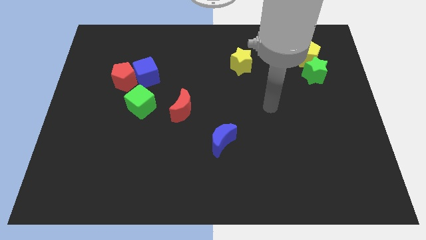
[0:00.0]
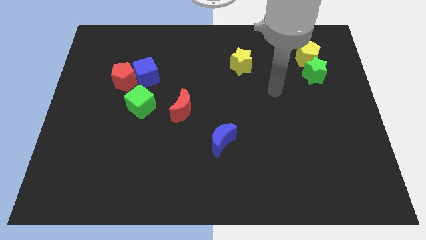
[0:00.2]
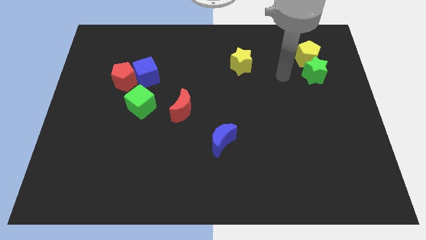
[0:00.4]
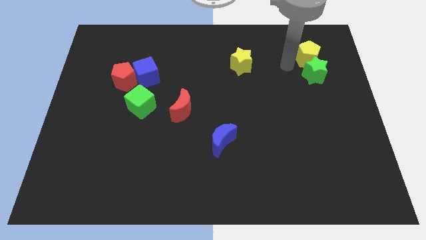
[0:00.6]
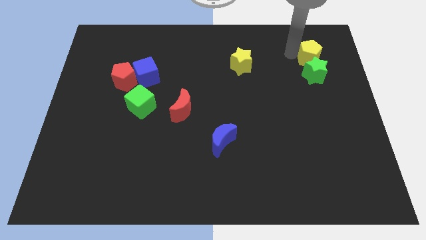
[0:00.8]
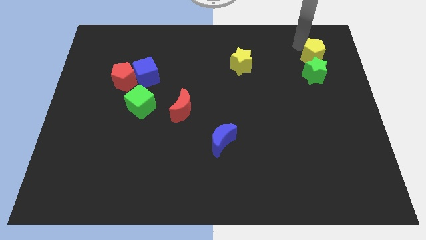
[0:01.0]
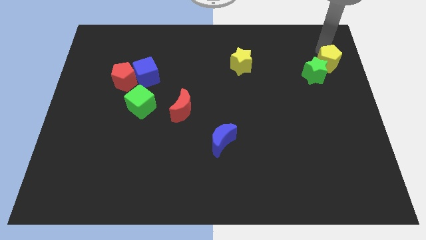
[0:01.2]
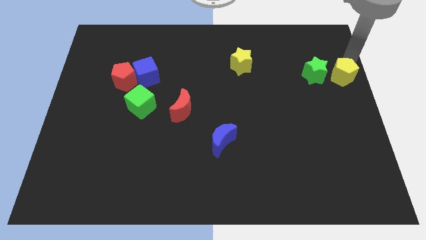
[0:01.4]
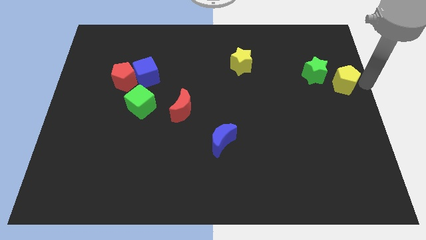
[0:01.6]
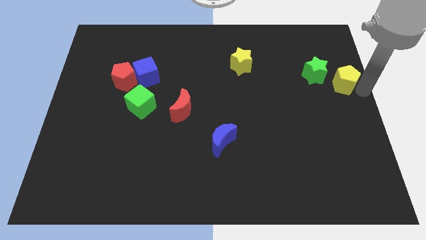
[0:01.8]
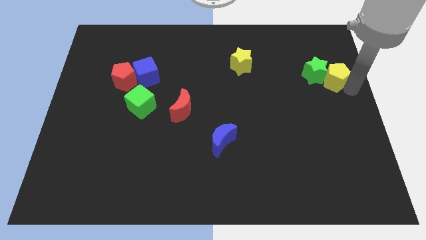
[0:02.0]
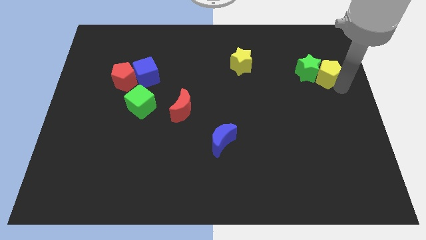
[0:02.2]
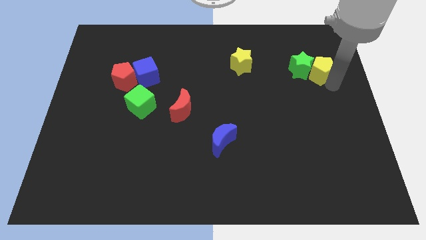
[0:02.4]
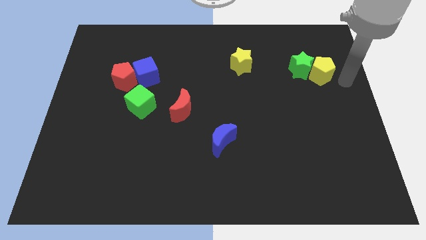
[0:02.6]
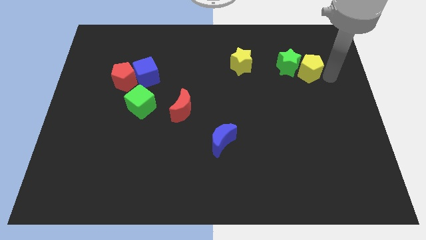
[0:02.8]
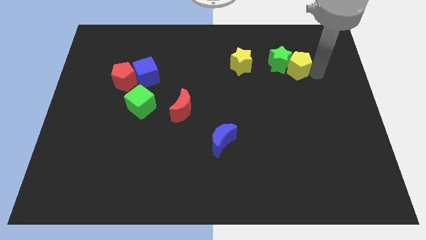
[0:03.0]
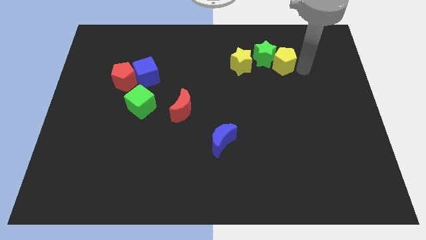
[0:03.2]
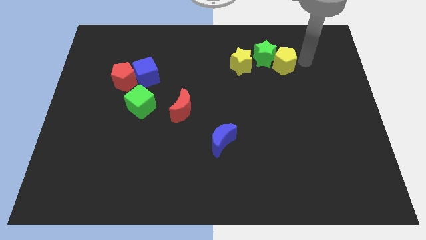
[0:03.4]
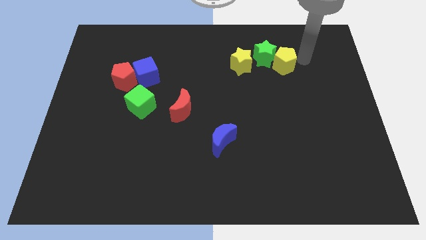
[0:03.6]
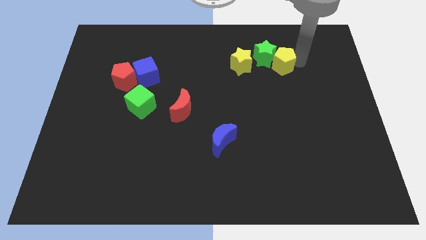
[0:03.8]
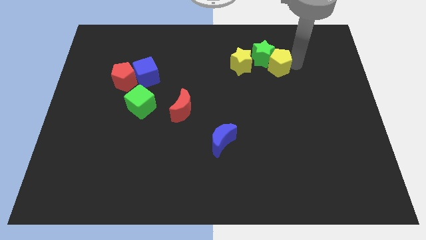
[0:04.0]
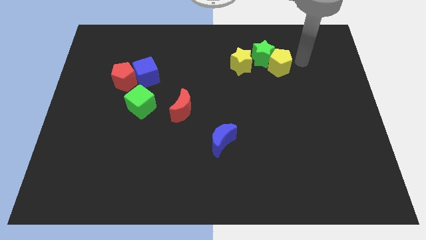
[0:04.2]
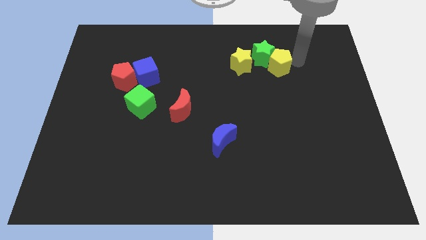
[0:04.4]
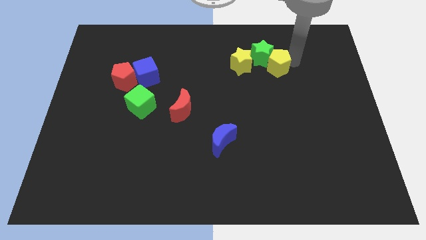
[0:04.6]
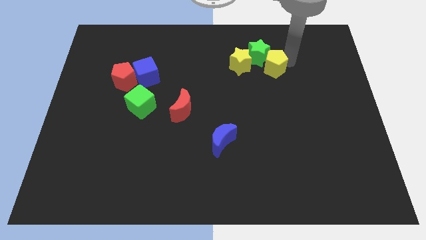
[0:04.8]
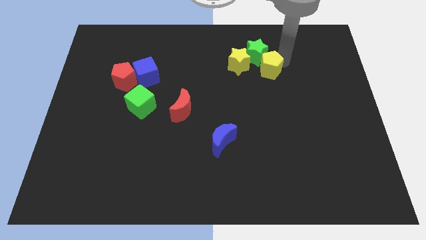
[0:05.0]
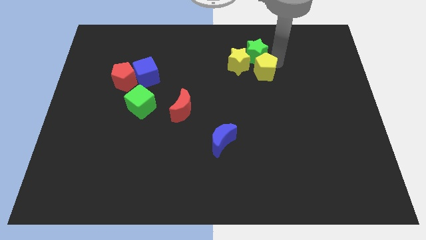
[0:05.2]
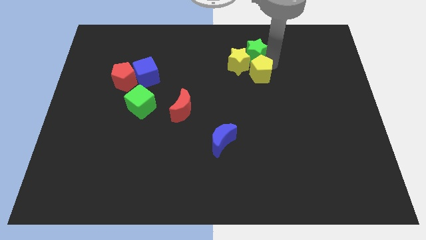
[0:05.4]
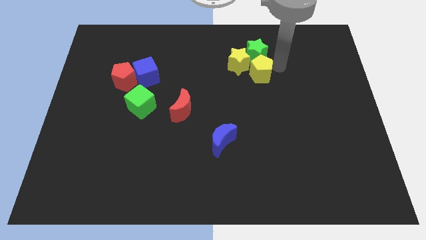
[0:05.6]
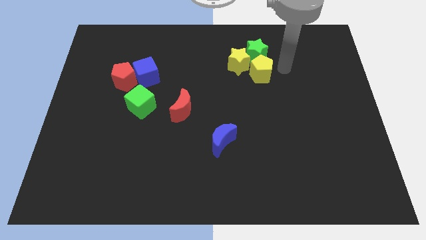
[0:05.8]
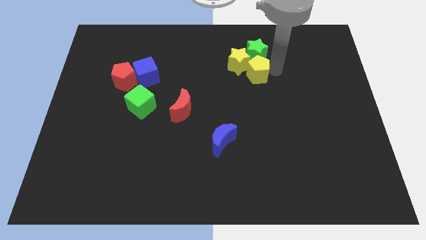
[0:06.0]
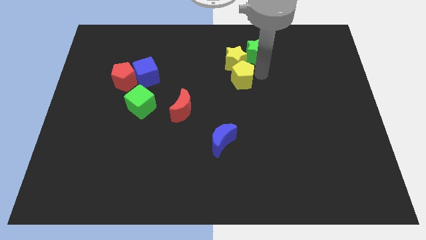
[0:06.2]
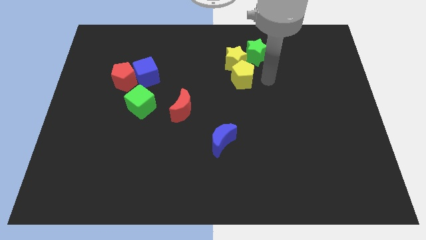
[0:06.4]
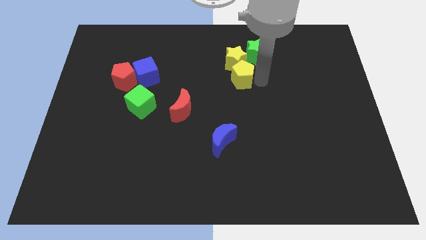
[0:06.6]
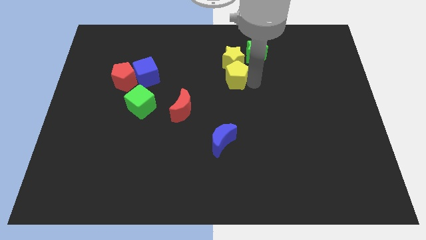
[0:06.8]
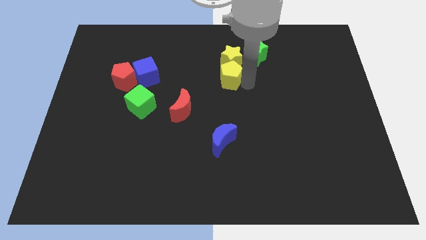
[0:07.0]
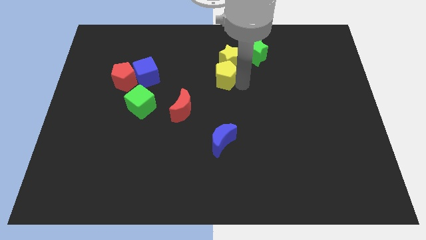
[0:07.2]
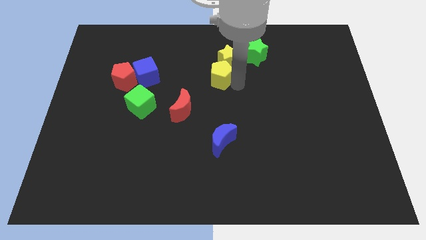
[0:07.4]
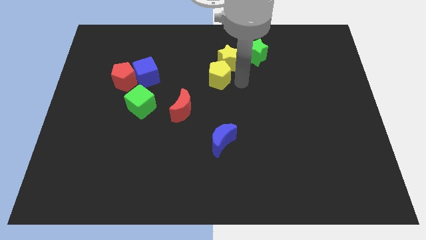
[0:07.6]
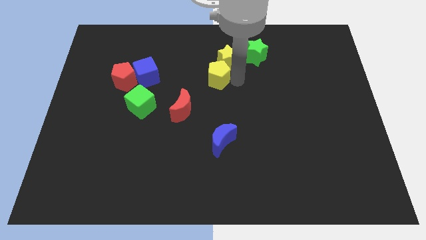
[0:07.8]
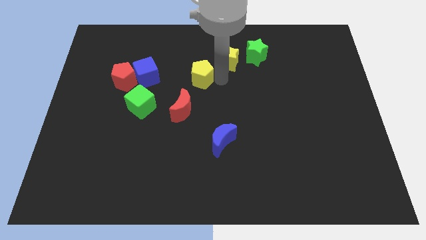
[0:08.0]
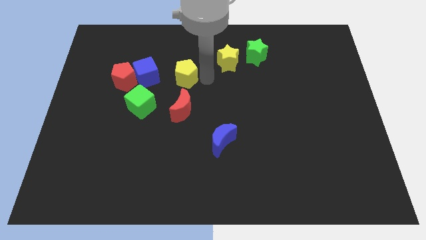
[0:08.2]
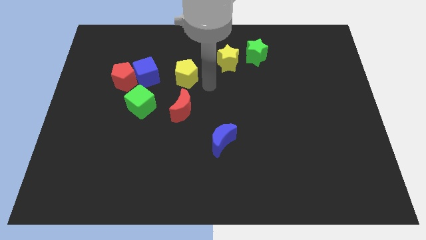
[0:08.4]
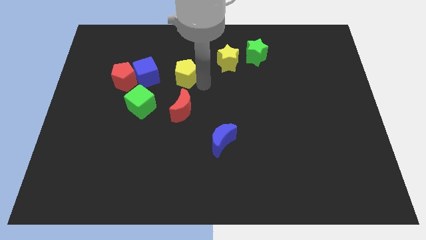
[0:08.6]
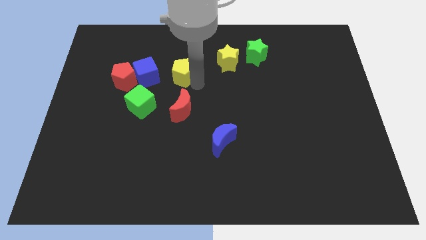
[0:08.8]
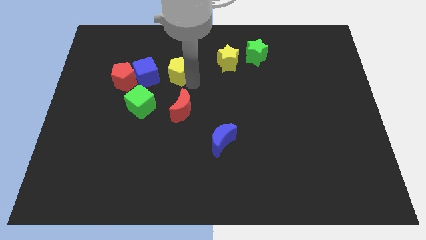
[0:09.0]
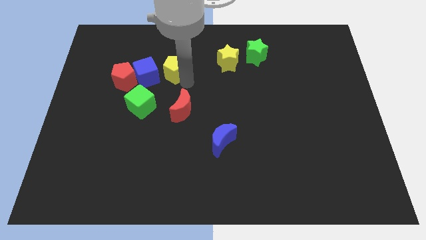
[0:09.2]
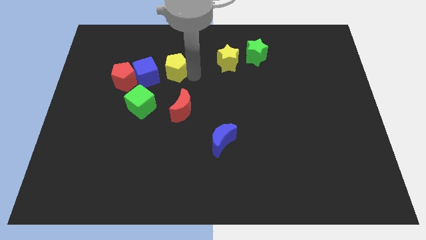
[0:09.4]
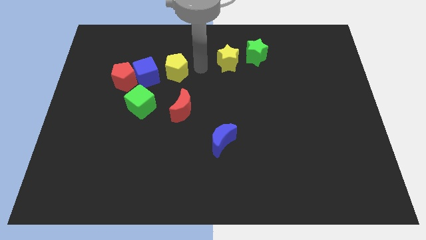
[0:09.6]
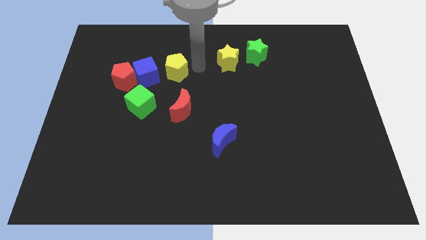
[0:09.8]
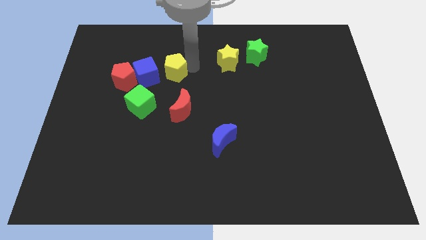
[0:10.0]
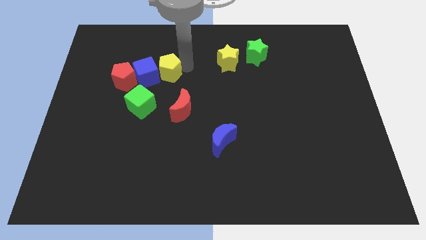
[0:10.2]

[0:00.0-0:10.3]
put the yellow pentagon next to the blue cube

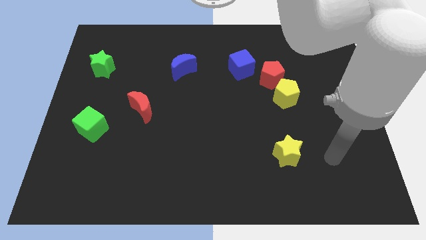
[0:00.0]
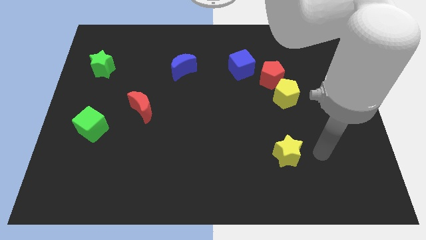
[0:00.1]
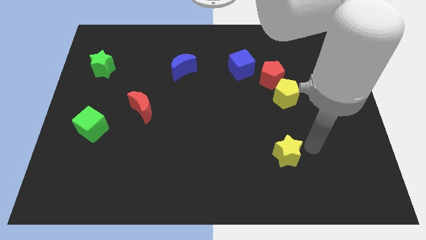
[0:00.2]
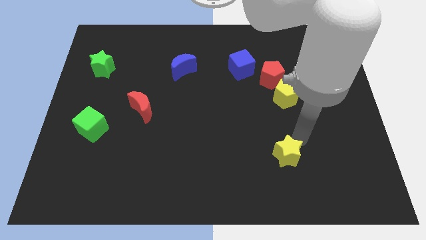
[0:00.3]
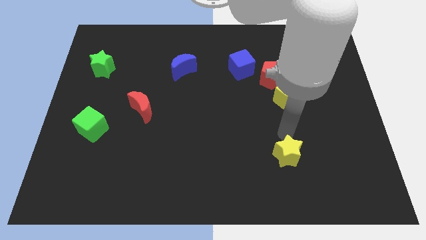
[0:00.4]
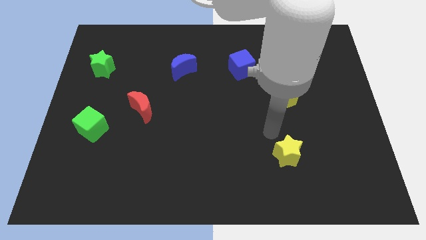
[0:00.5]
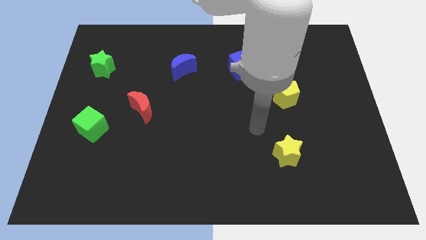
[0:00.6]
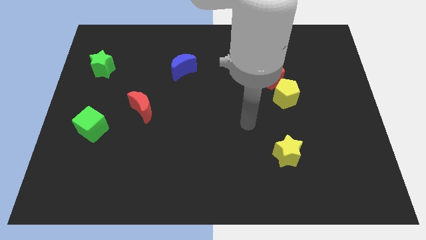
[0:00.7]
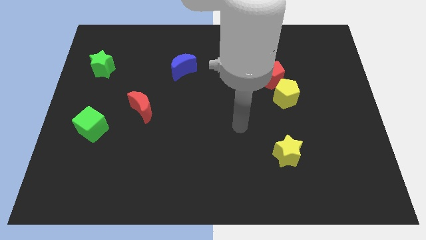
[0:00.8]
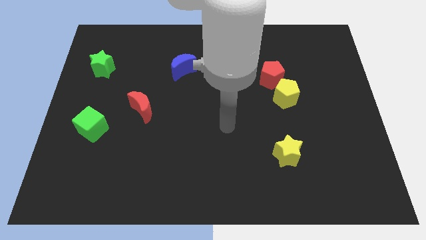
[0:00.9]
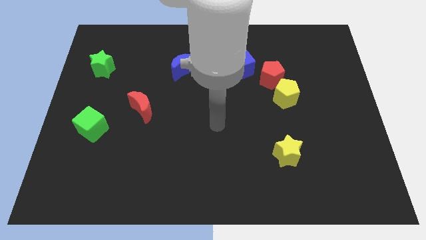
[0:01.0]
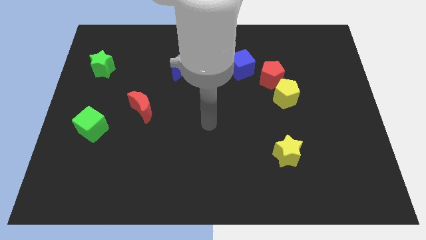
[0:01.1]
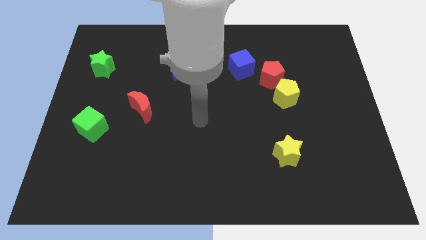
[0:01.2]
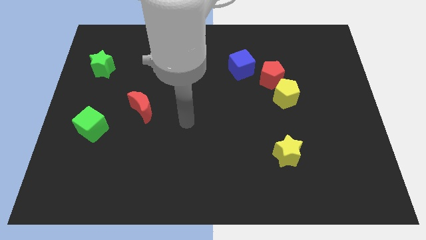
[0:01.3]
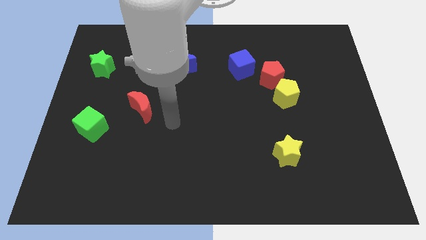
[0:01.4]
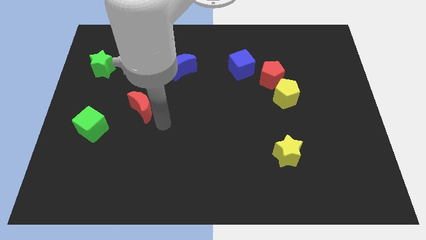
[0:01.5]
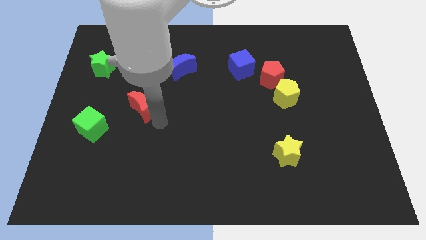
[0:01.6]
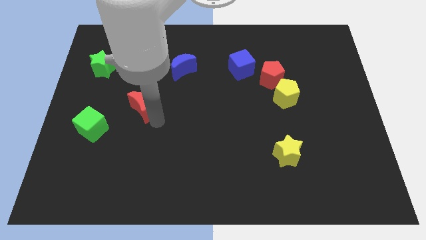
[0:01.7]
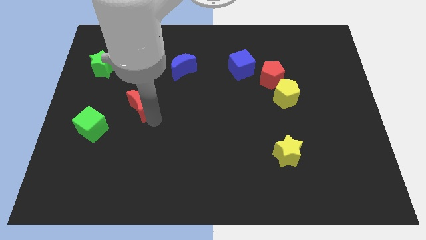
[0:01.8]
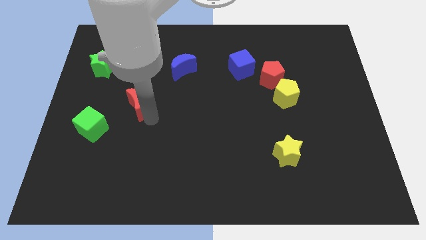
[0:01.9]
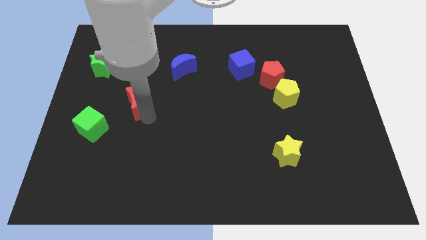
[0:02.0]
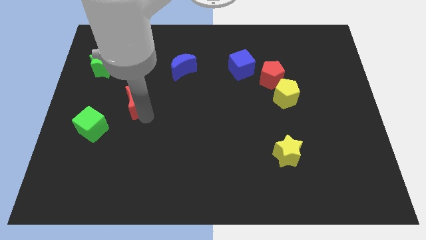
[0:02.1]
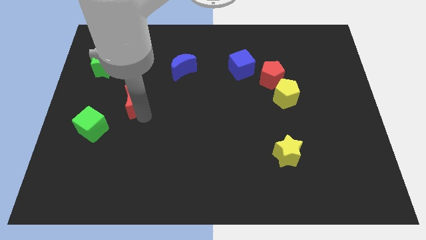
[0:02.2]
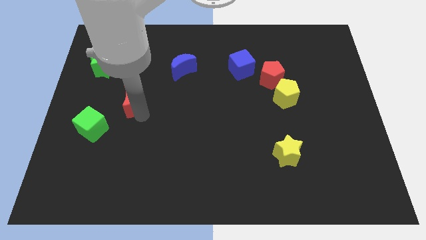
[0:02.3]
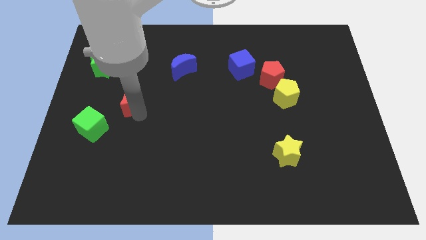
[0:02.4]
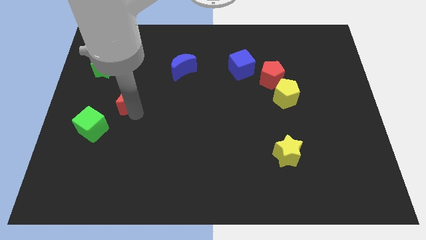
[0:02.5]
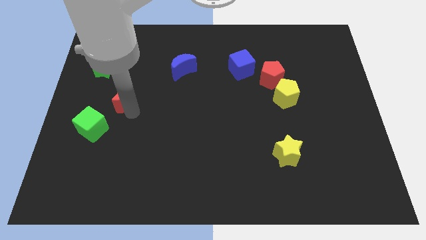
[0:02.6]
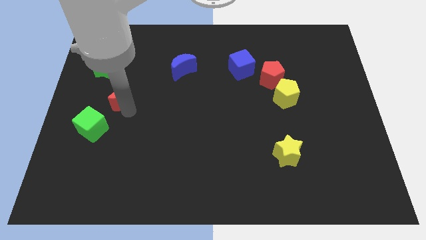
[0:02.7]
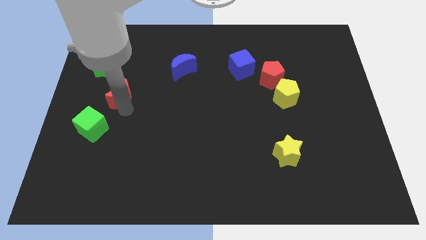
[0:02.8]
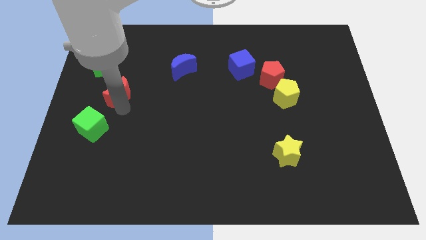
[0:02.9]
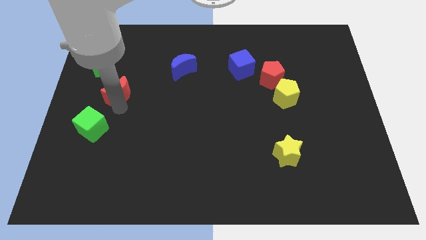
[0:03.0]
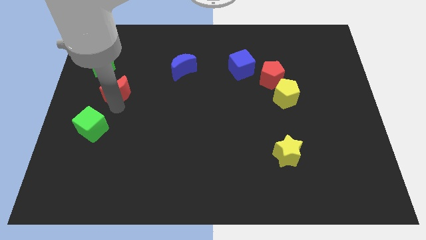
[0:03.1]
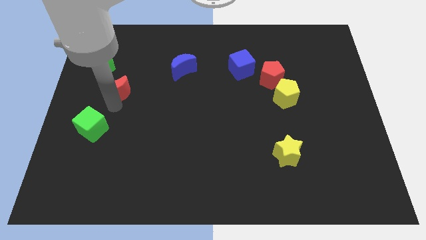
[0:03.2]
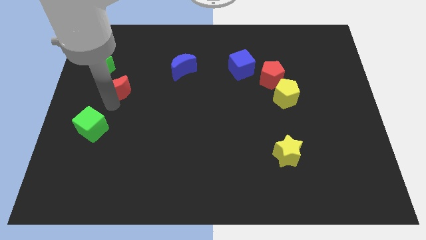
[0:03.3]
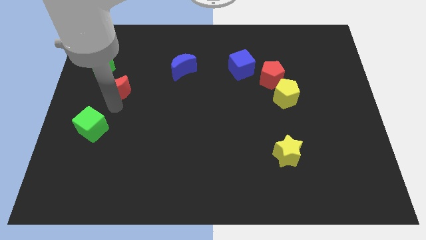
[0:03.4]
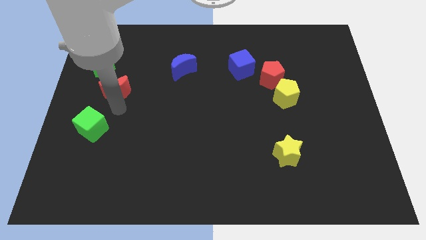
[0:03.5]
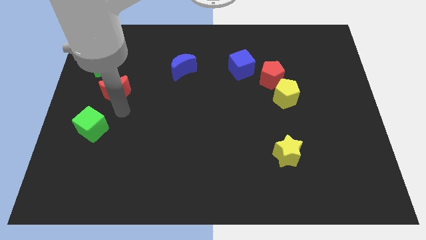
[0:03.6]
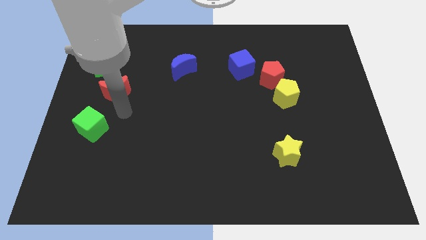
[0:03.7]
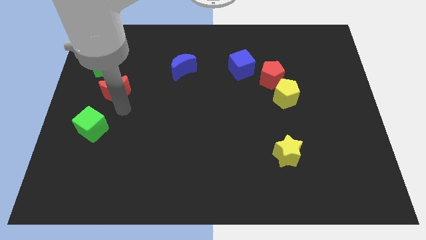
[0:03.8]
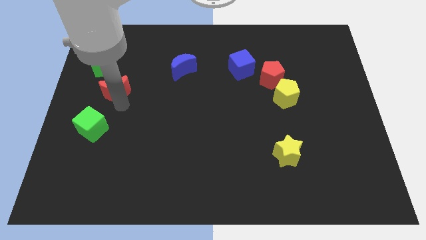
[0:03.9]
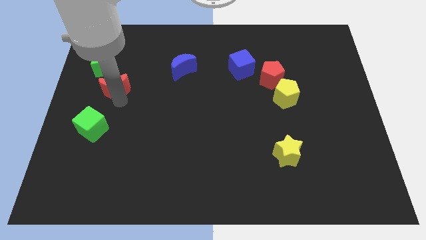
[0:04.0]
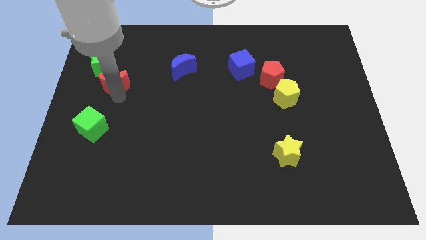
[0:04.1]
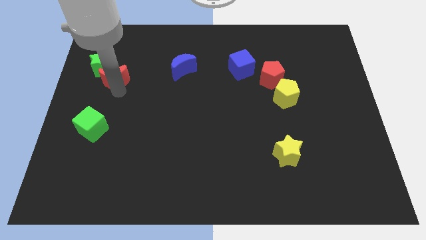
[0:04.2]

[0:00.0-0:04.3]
slide the red moon close to the green star
